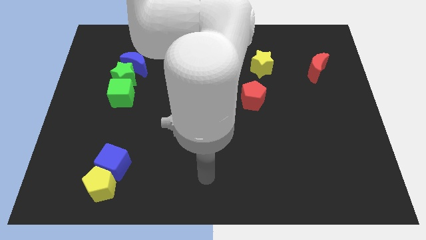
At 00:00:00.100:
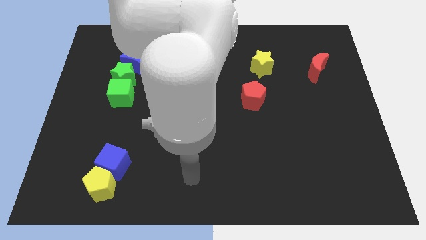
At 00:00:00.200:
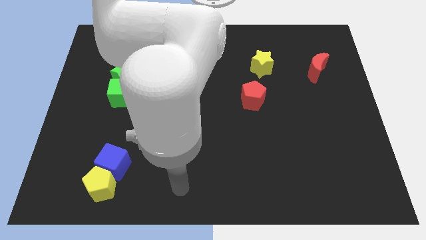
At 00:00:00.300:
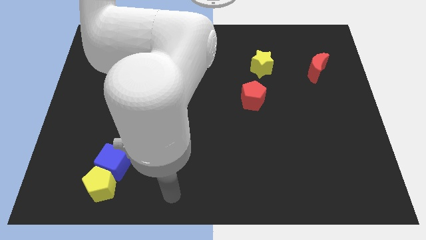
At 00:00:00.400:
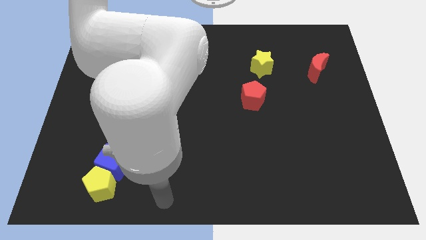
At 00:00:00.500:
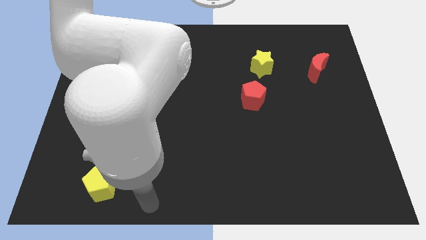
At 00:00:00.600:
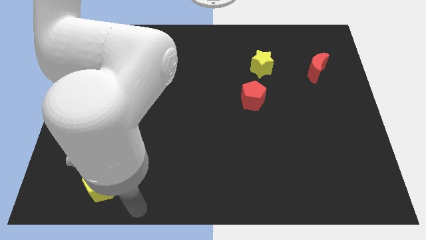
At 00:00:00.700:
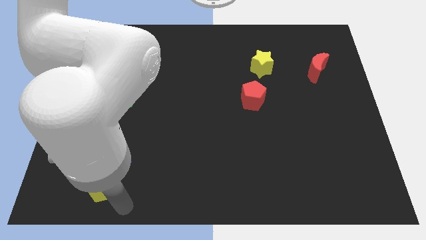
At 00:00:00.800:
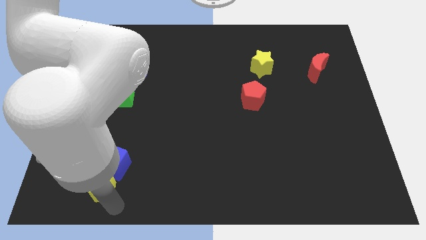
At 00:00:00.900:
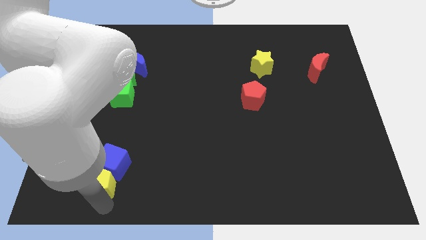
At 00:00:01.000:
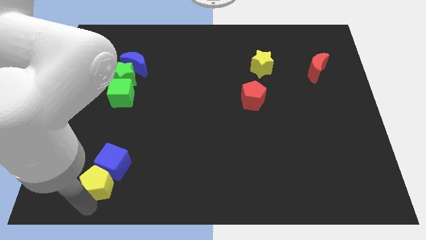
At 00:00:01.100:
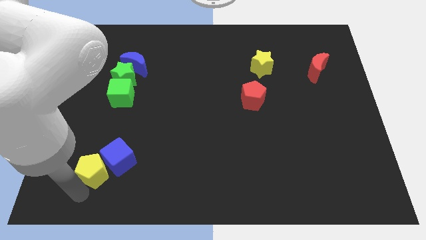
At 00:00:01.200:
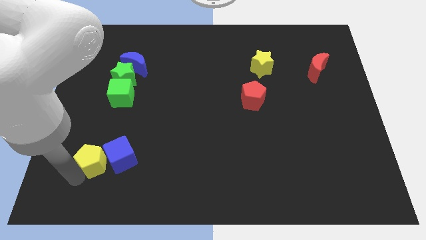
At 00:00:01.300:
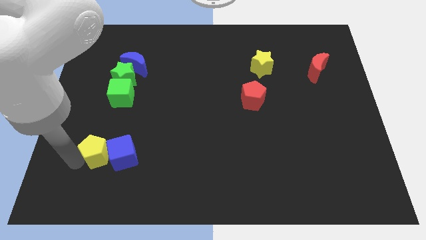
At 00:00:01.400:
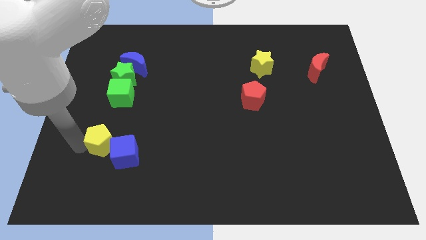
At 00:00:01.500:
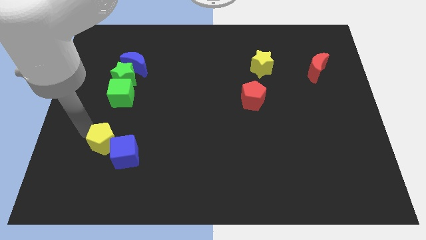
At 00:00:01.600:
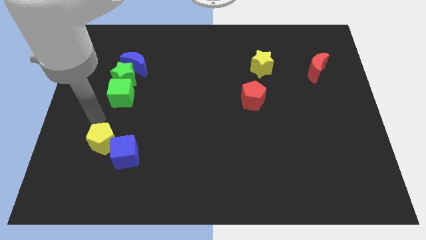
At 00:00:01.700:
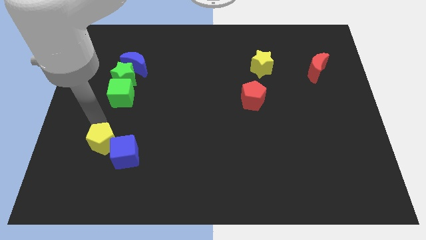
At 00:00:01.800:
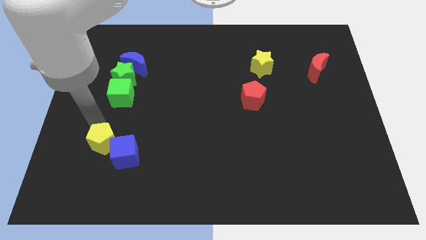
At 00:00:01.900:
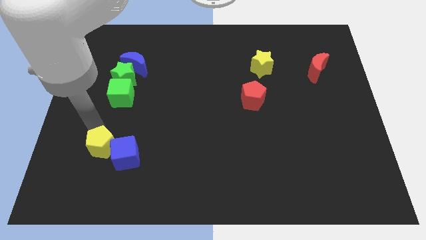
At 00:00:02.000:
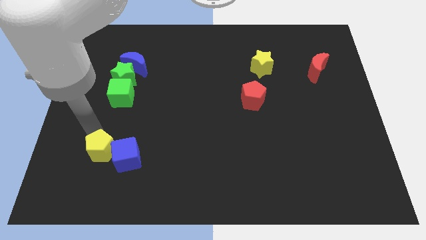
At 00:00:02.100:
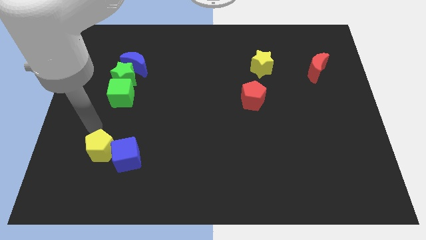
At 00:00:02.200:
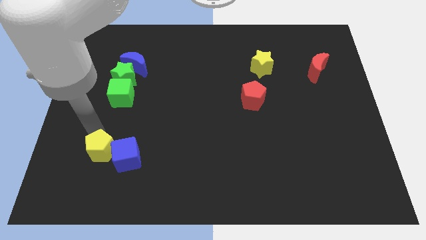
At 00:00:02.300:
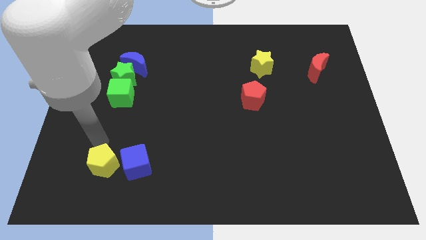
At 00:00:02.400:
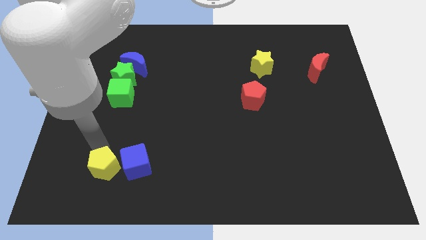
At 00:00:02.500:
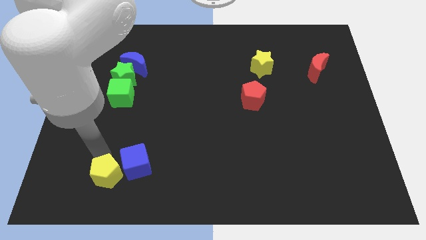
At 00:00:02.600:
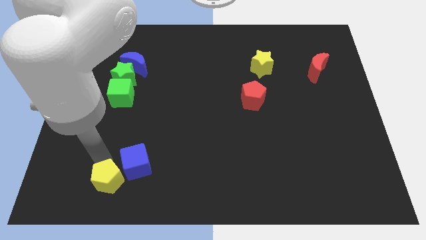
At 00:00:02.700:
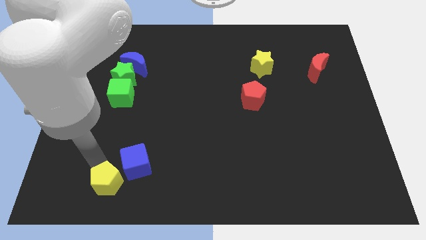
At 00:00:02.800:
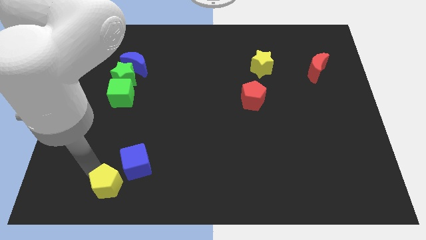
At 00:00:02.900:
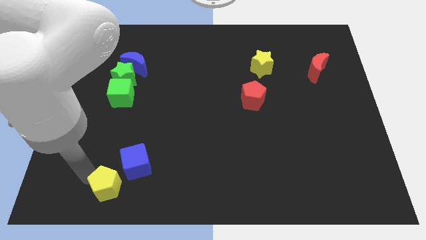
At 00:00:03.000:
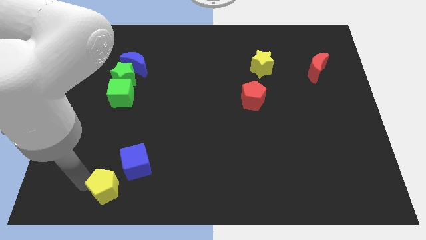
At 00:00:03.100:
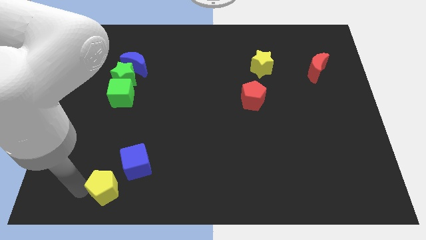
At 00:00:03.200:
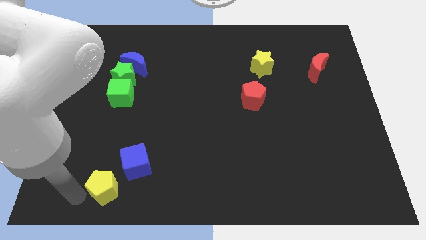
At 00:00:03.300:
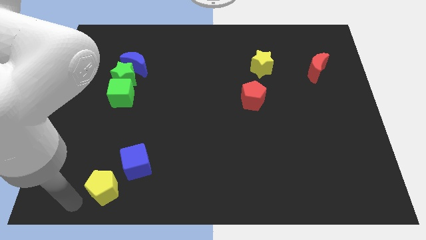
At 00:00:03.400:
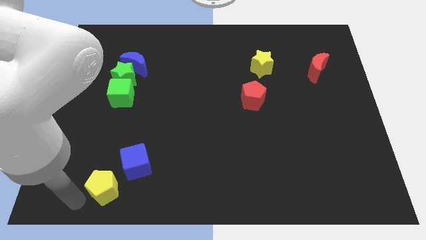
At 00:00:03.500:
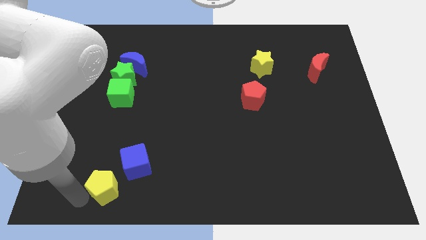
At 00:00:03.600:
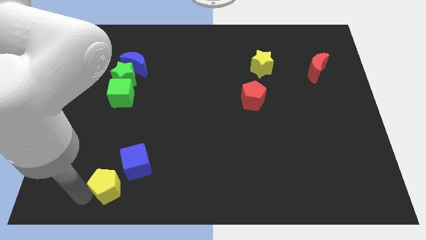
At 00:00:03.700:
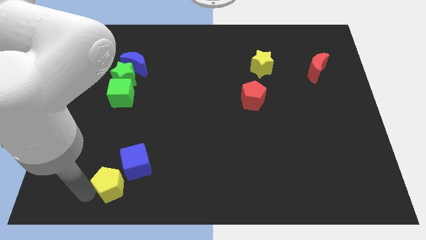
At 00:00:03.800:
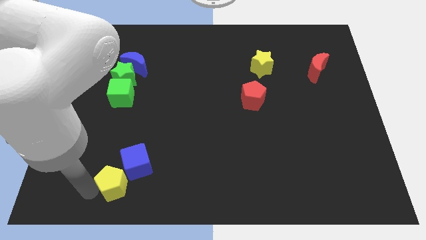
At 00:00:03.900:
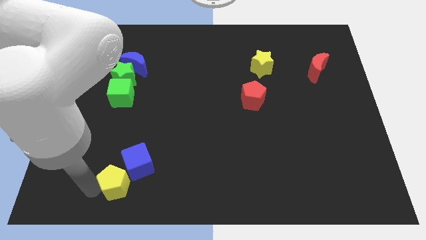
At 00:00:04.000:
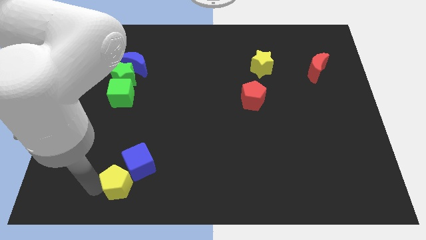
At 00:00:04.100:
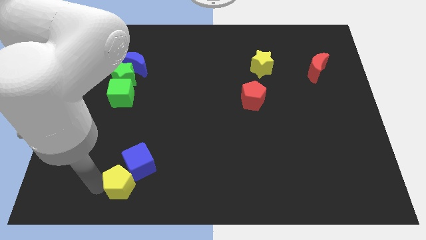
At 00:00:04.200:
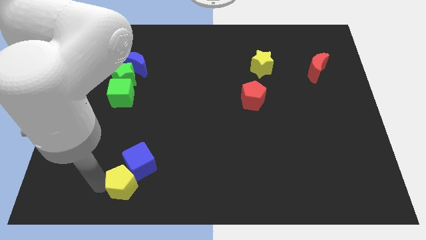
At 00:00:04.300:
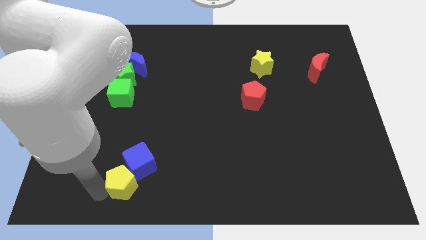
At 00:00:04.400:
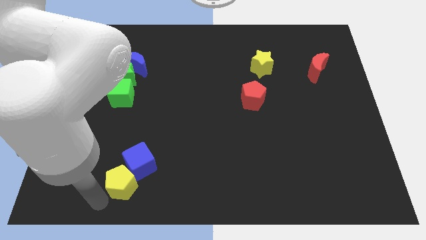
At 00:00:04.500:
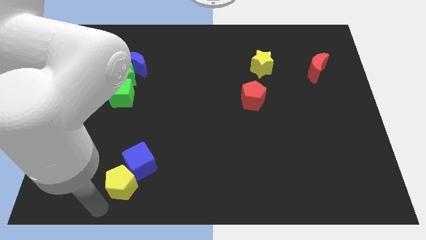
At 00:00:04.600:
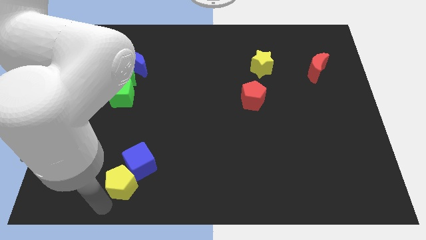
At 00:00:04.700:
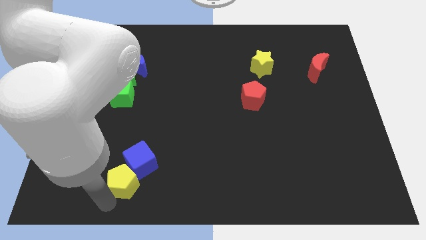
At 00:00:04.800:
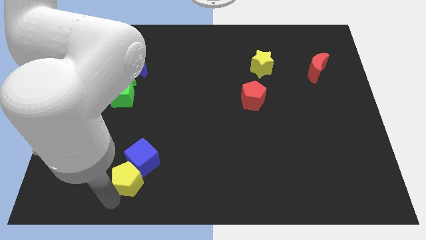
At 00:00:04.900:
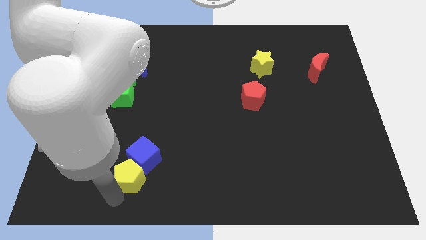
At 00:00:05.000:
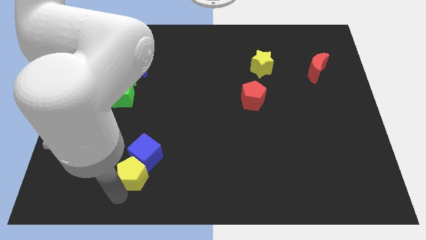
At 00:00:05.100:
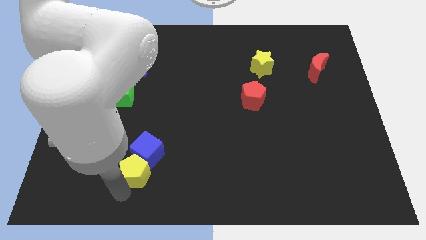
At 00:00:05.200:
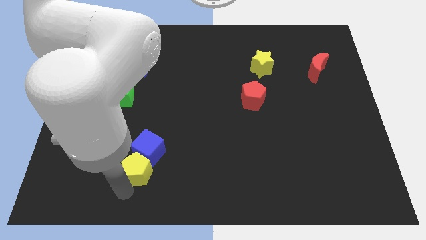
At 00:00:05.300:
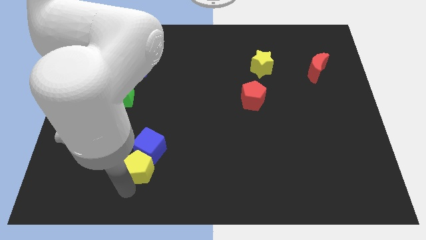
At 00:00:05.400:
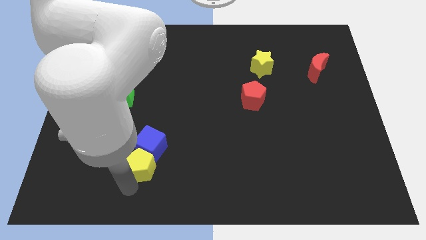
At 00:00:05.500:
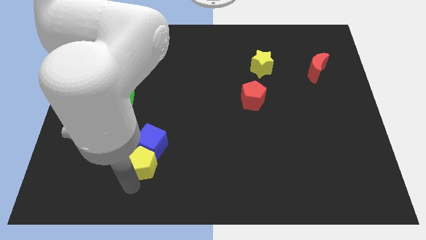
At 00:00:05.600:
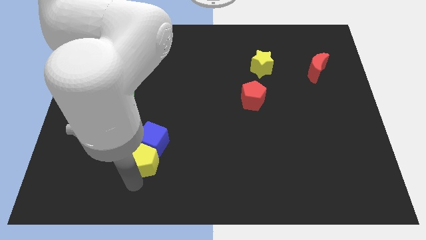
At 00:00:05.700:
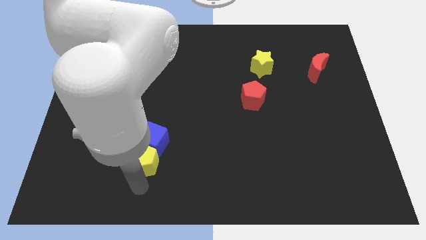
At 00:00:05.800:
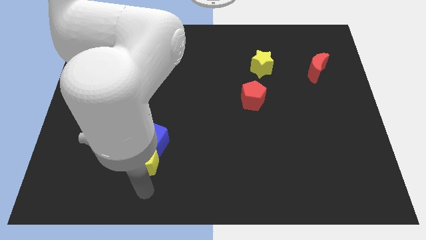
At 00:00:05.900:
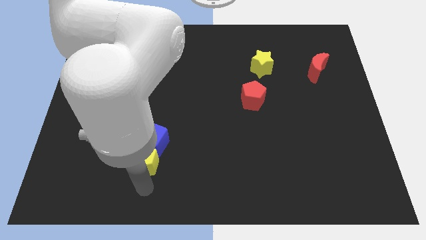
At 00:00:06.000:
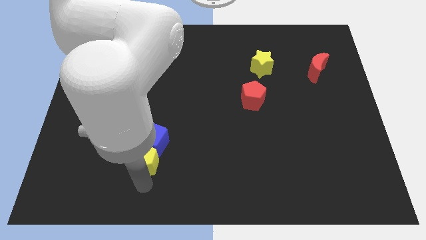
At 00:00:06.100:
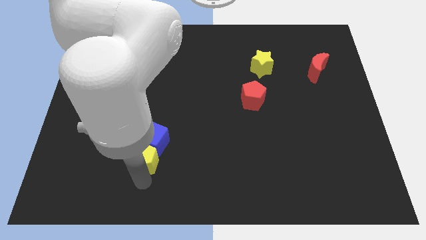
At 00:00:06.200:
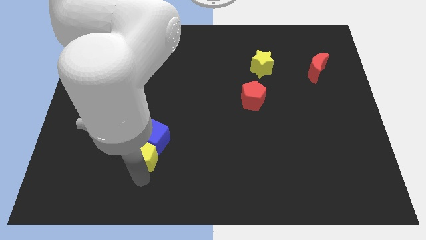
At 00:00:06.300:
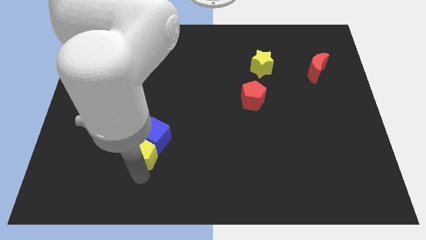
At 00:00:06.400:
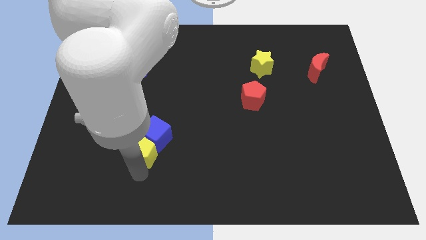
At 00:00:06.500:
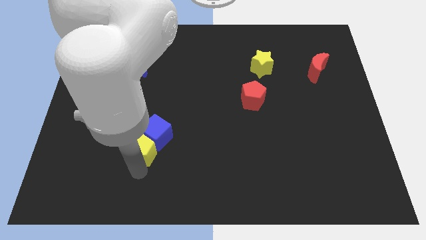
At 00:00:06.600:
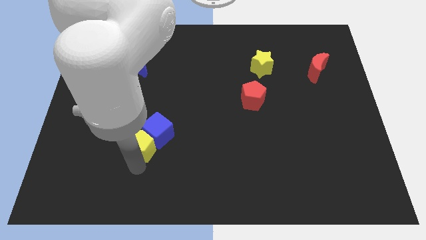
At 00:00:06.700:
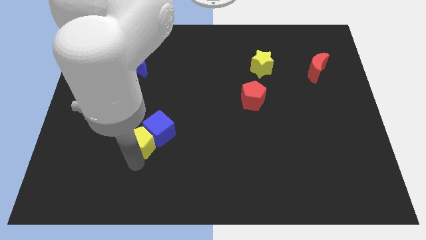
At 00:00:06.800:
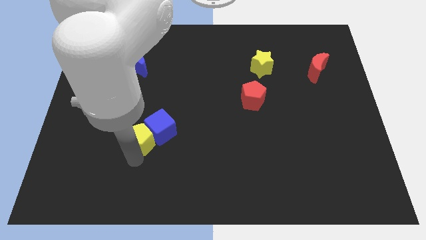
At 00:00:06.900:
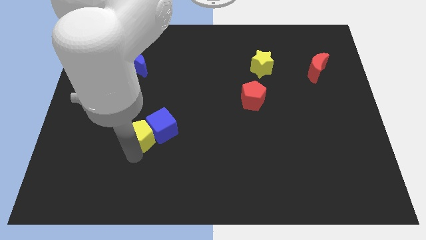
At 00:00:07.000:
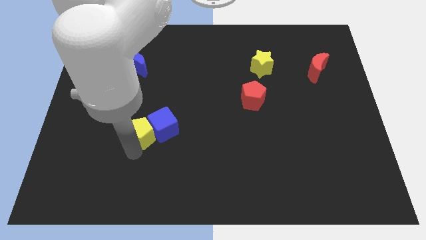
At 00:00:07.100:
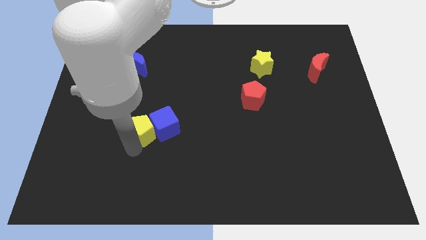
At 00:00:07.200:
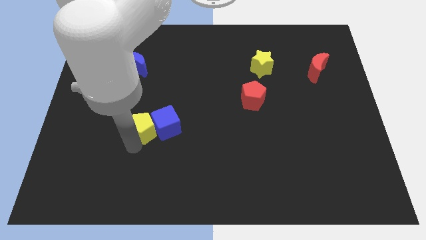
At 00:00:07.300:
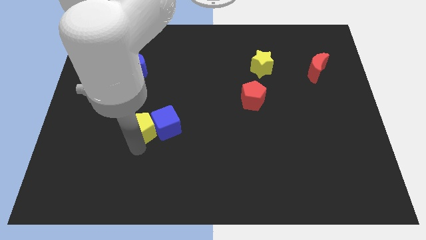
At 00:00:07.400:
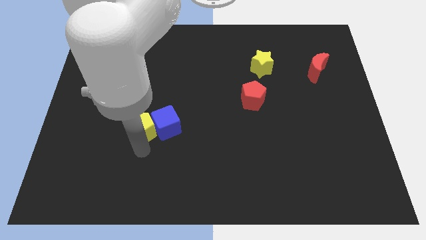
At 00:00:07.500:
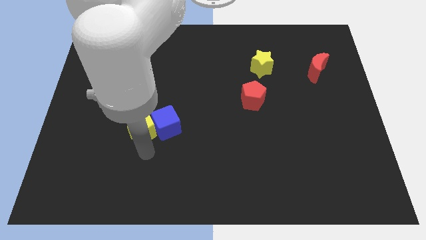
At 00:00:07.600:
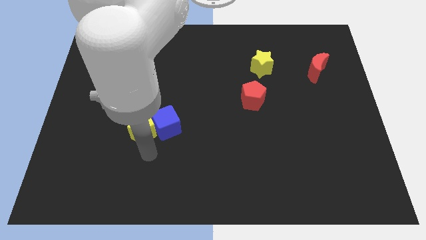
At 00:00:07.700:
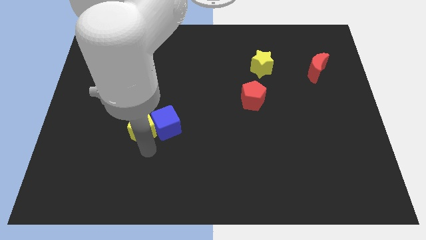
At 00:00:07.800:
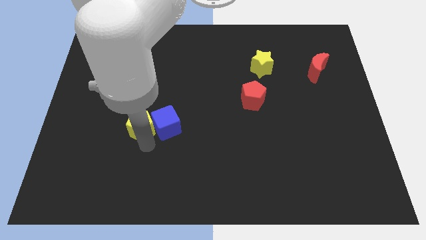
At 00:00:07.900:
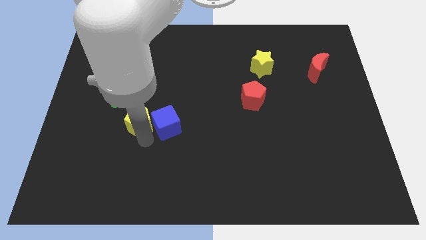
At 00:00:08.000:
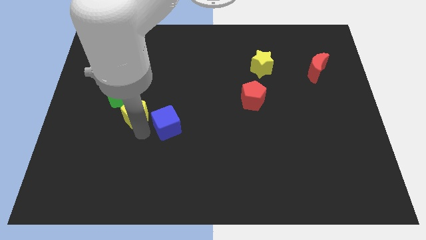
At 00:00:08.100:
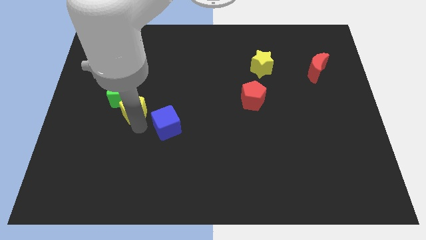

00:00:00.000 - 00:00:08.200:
slide the yellow pentagon to the bottom right side of the green star
